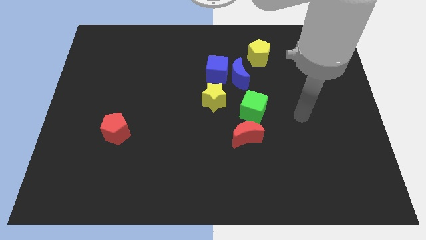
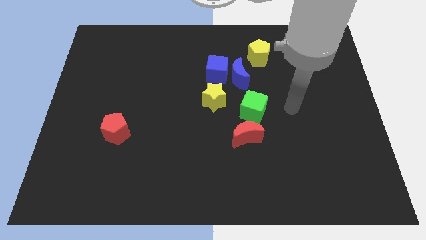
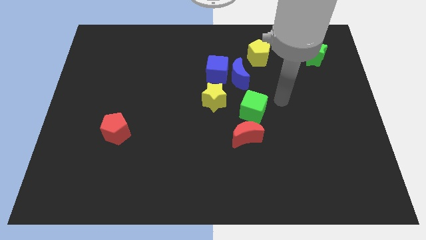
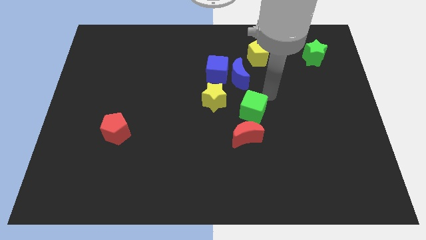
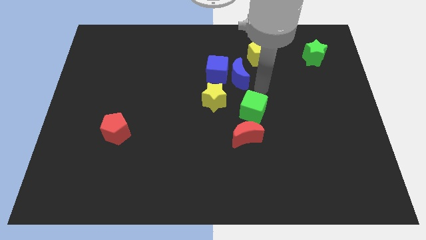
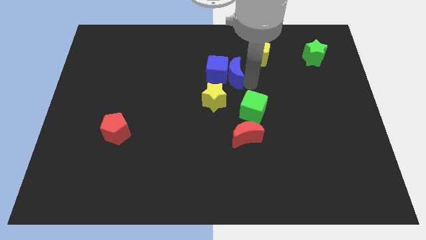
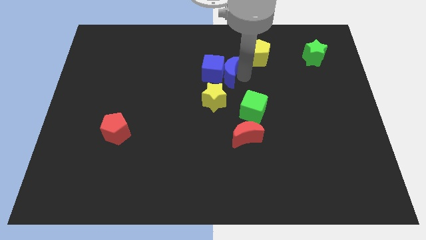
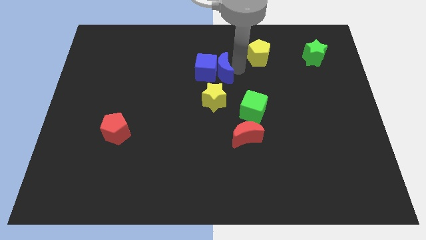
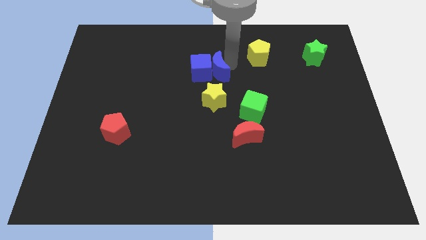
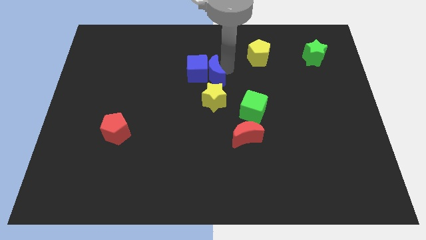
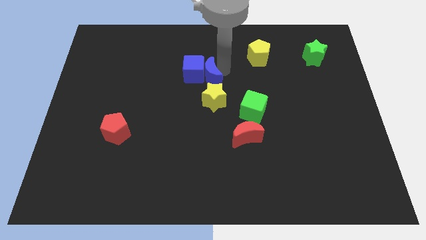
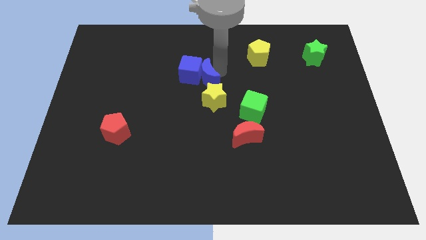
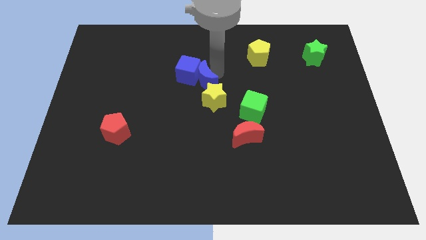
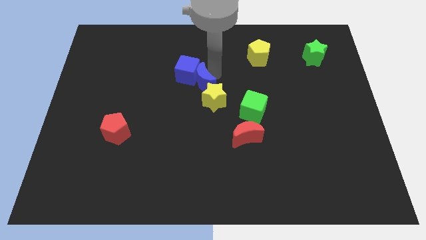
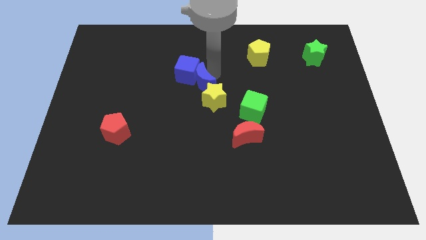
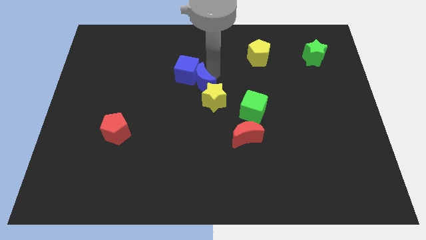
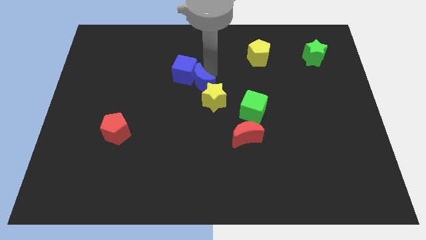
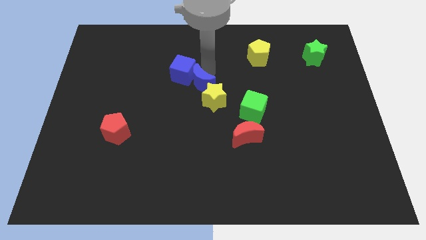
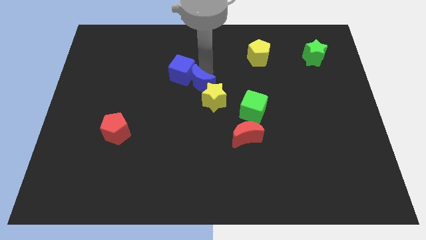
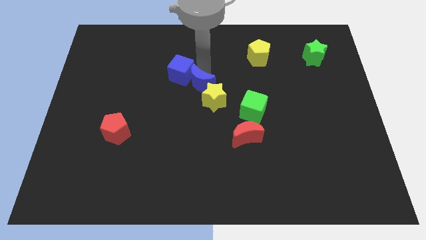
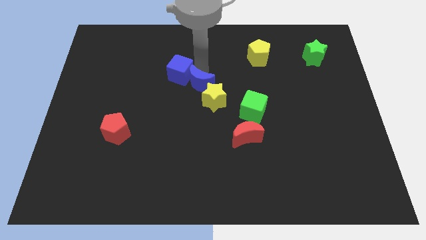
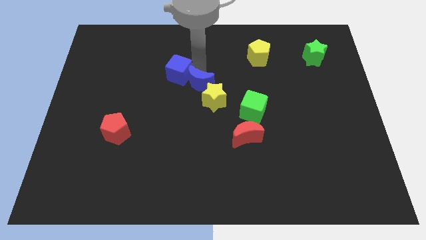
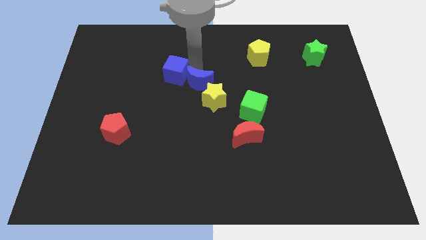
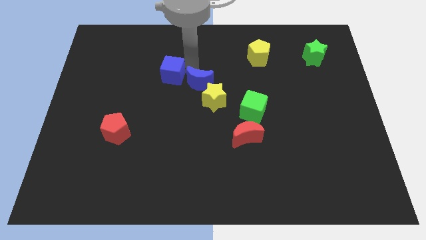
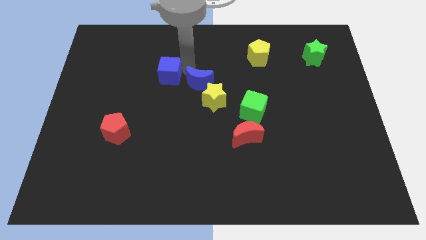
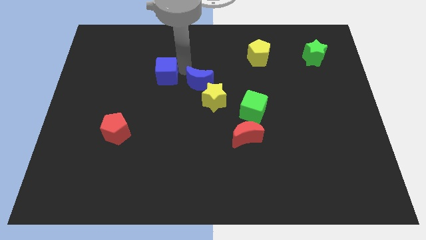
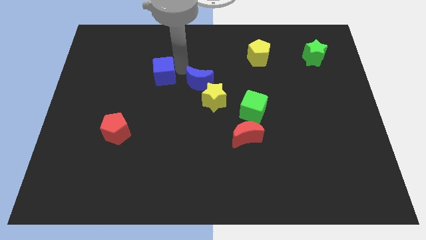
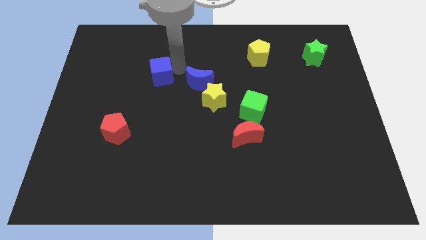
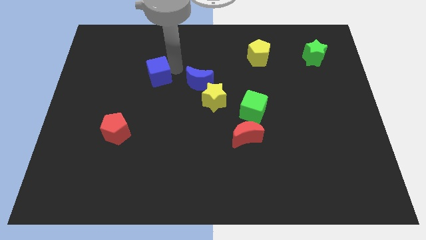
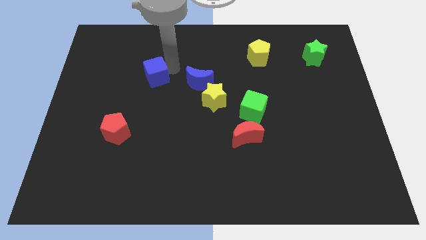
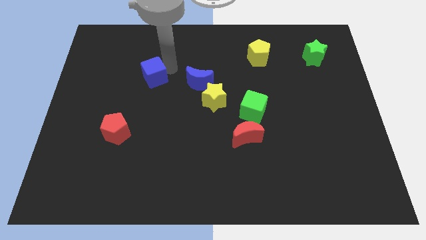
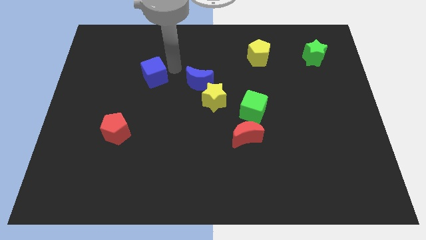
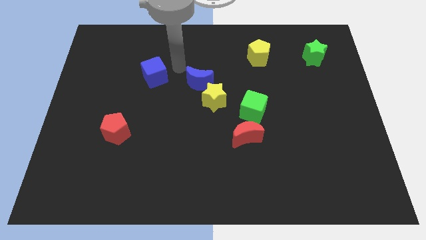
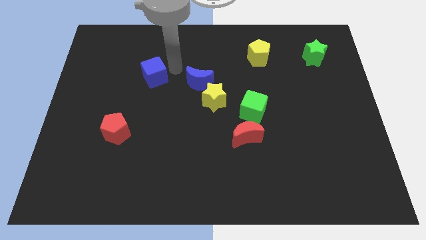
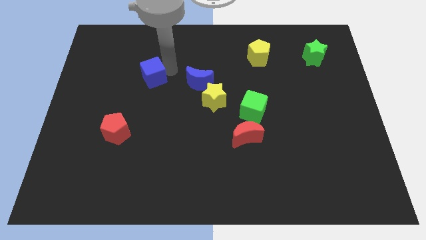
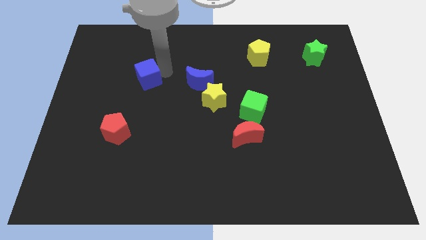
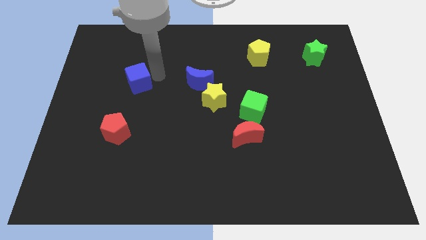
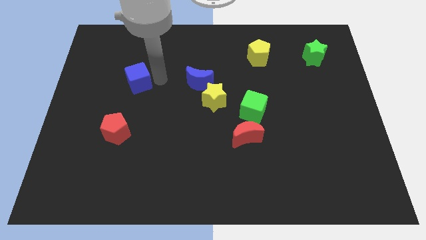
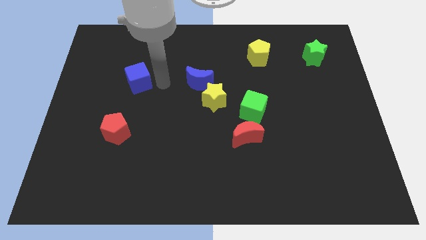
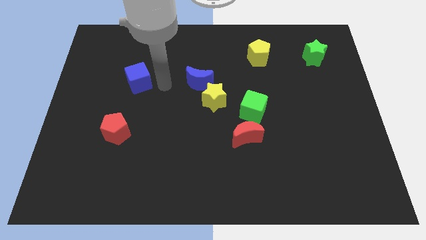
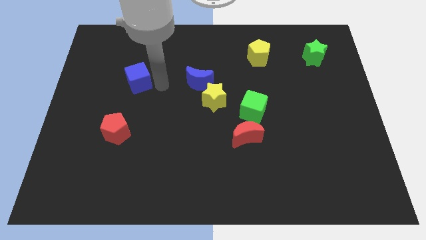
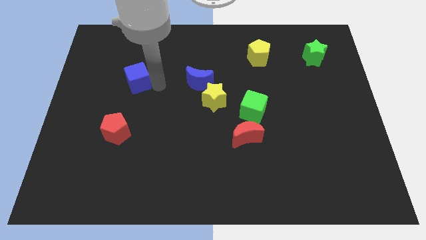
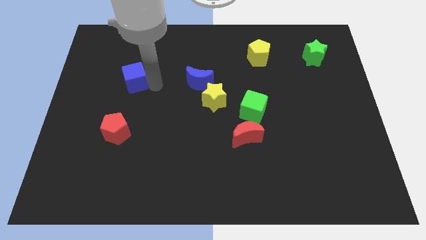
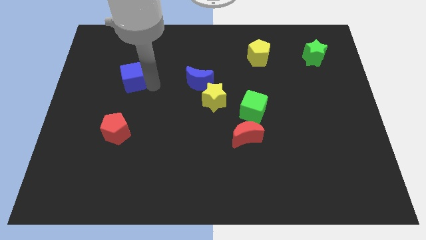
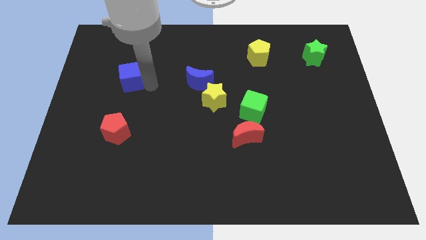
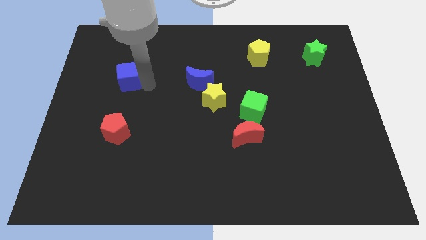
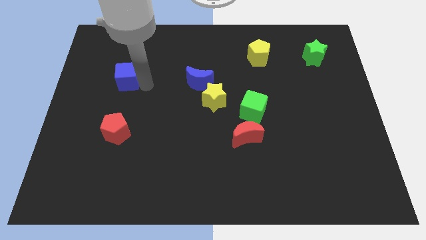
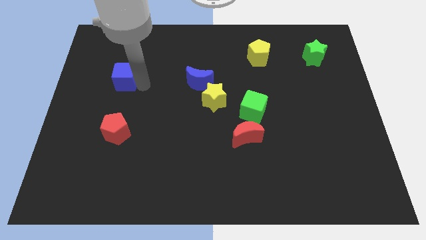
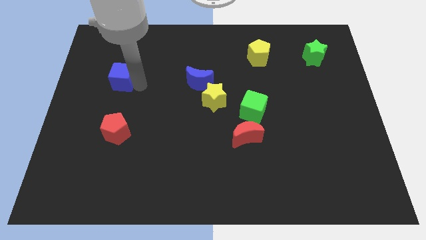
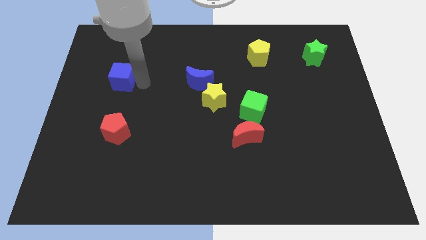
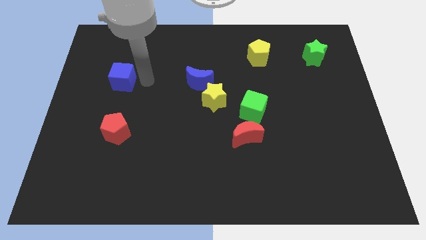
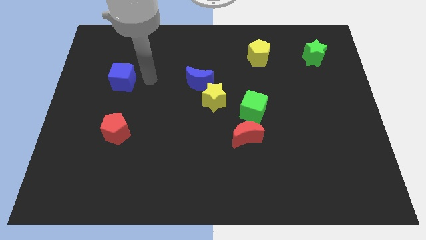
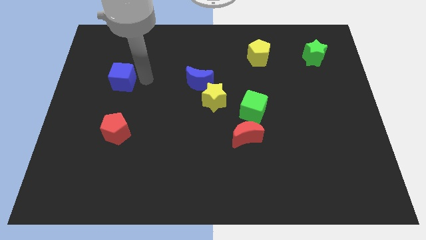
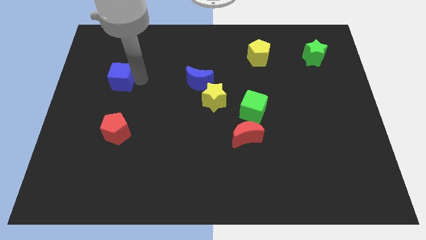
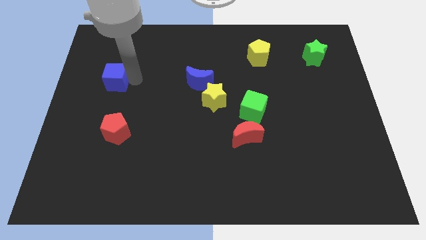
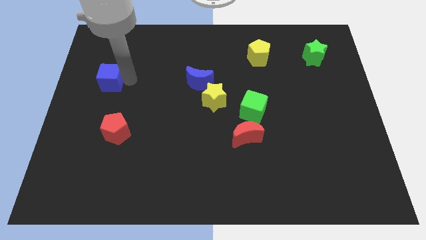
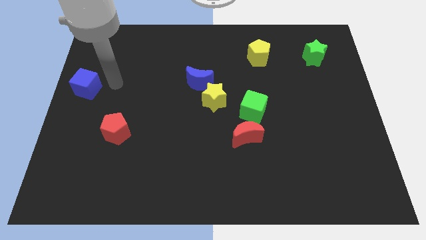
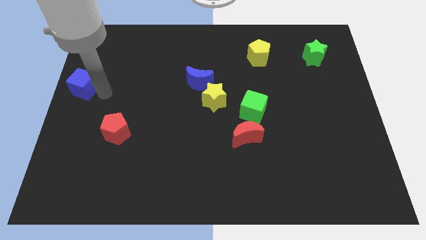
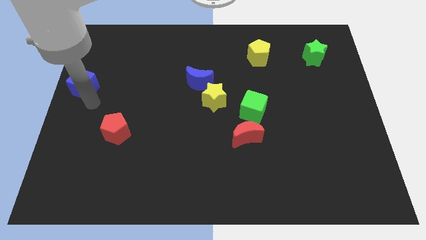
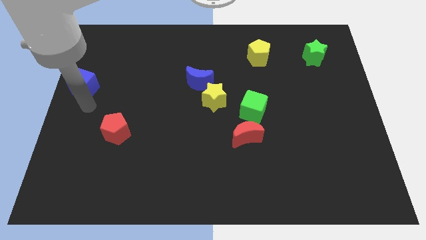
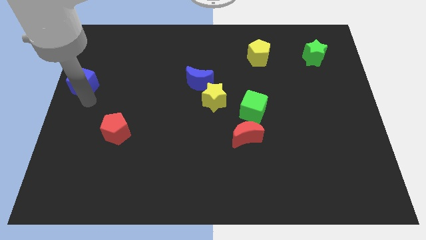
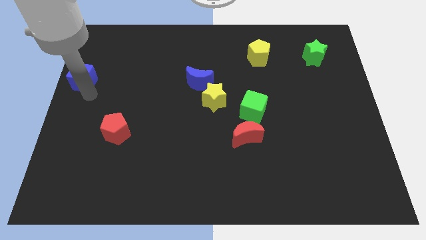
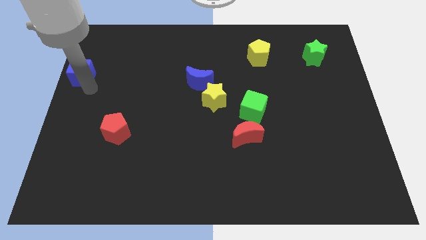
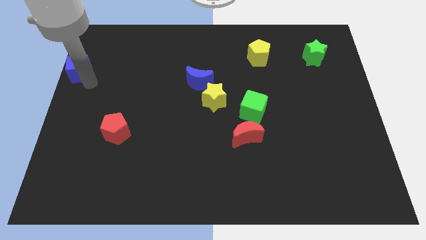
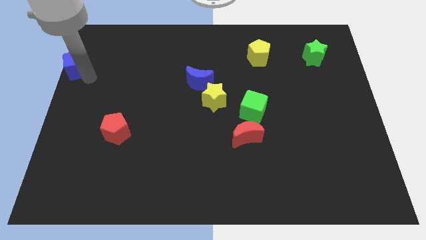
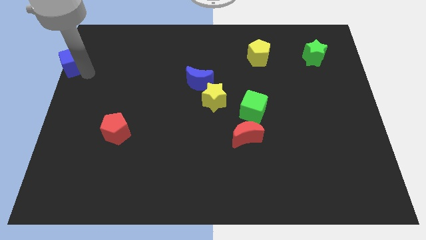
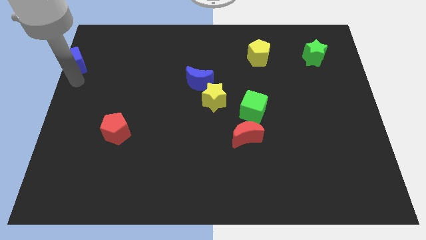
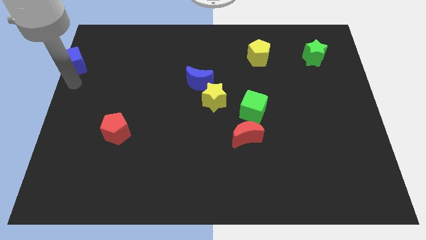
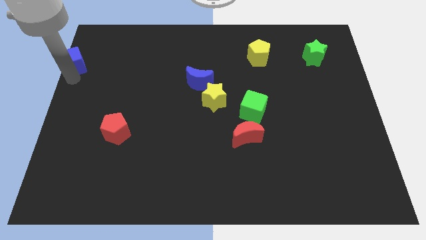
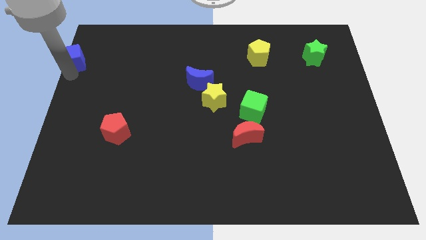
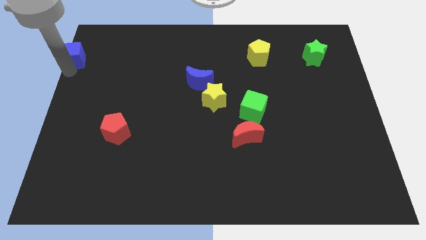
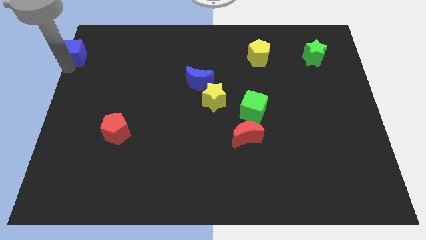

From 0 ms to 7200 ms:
slide the blue cube to the top left corner
